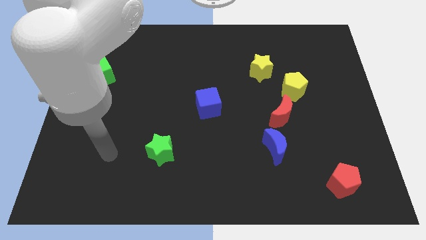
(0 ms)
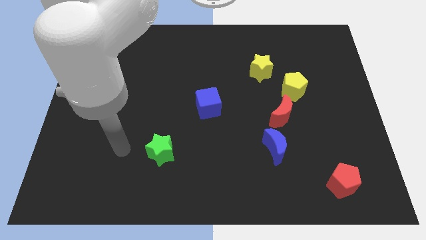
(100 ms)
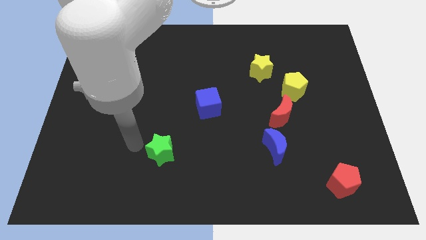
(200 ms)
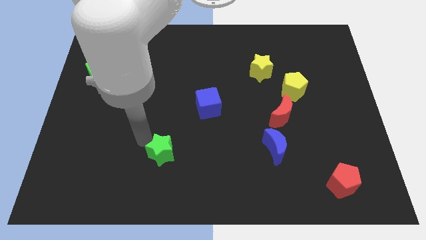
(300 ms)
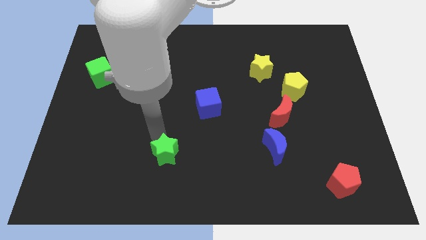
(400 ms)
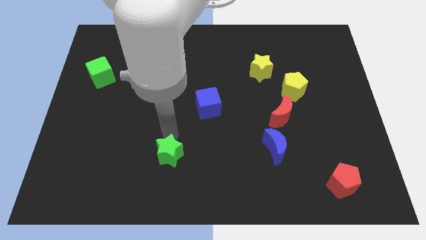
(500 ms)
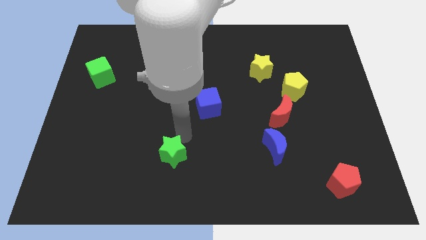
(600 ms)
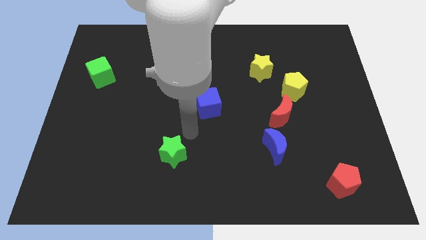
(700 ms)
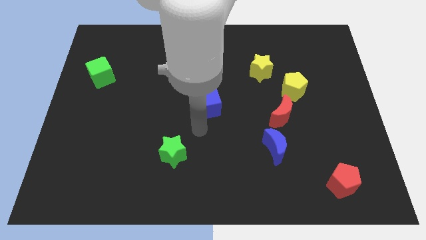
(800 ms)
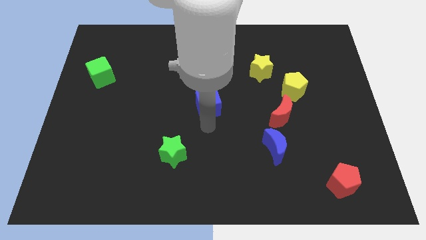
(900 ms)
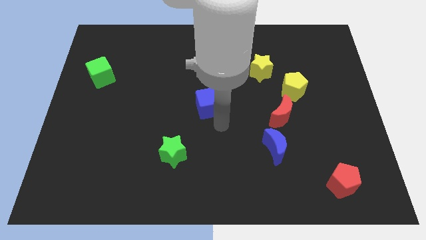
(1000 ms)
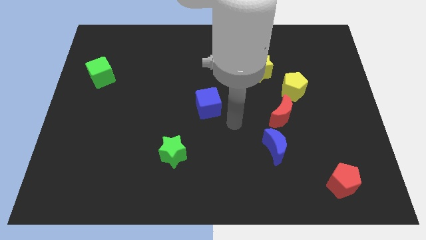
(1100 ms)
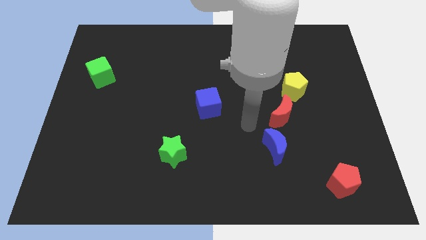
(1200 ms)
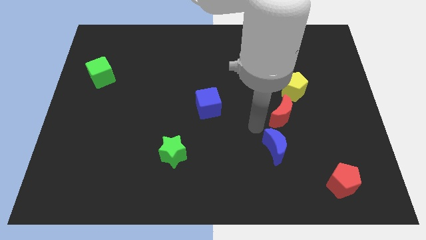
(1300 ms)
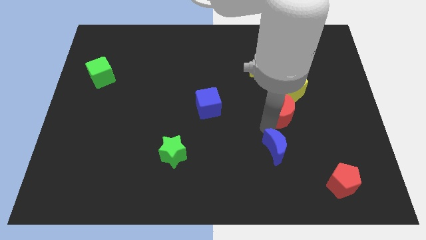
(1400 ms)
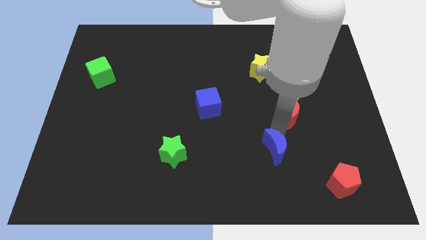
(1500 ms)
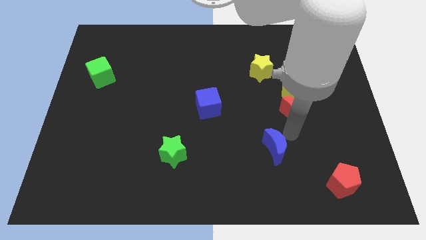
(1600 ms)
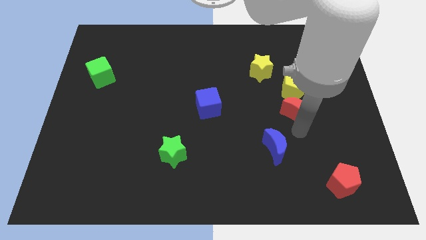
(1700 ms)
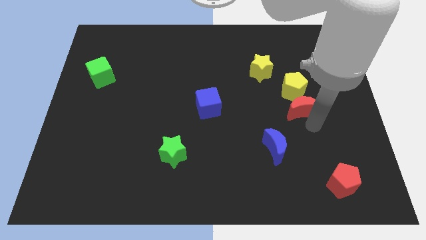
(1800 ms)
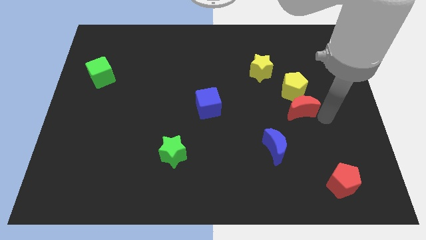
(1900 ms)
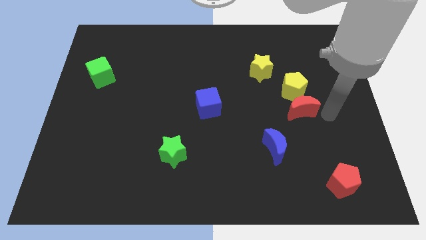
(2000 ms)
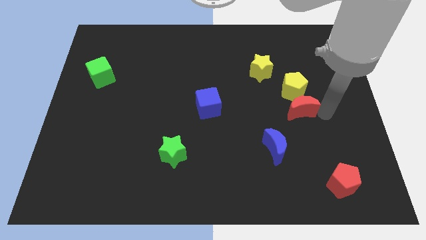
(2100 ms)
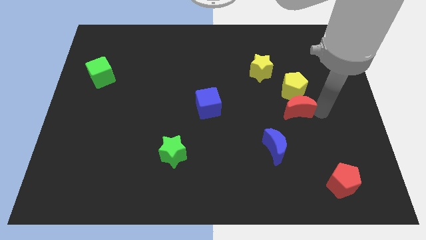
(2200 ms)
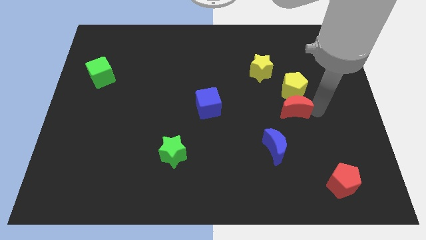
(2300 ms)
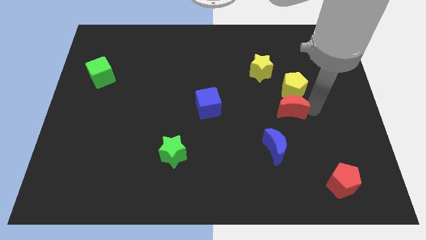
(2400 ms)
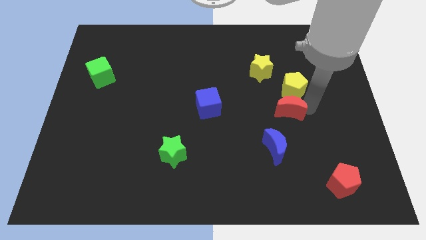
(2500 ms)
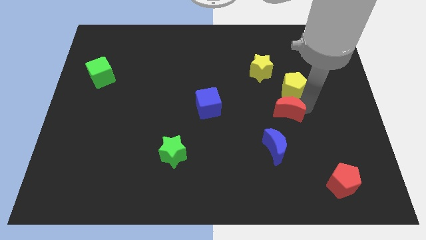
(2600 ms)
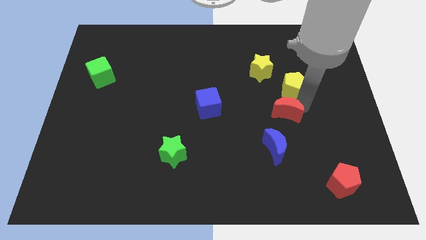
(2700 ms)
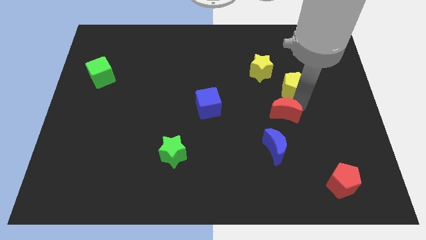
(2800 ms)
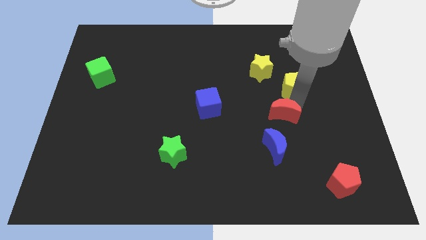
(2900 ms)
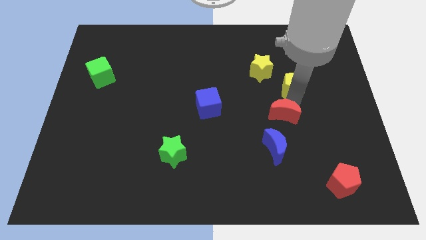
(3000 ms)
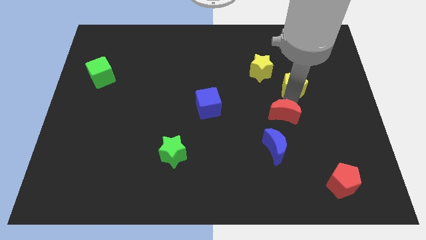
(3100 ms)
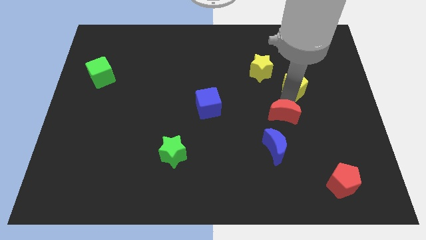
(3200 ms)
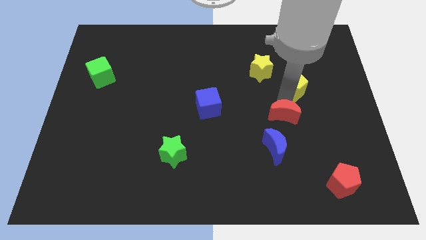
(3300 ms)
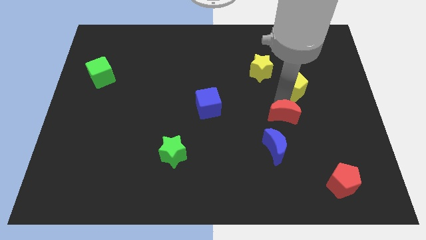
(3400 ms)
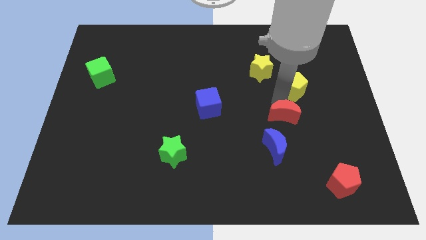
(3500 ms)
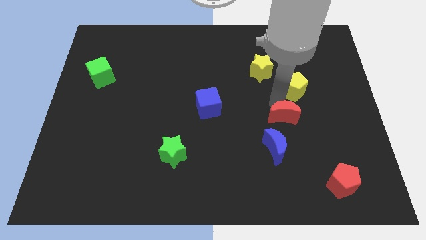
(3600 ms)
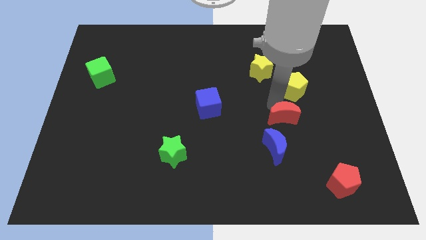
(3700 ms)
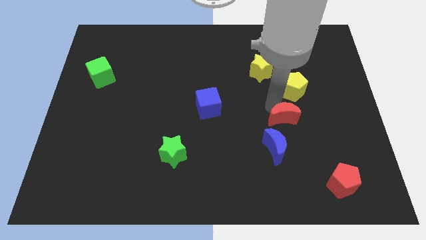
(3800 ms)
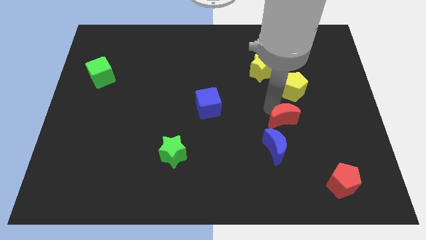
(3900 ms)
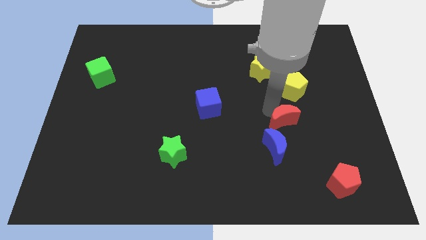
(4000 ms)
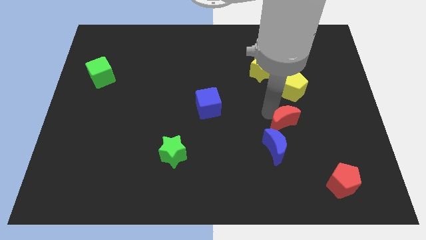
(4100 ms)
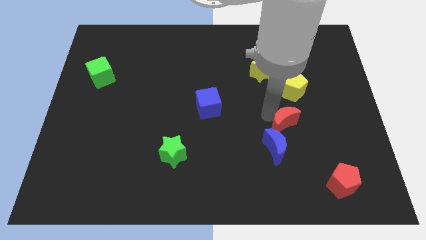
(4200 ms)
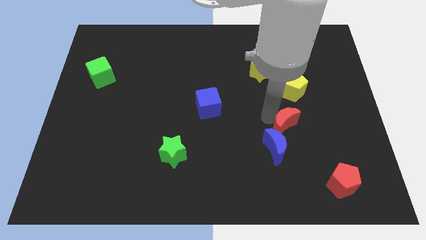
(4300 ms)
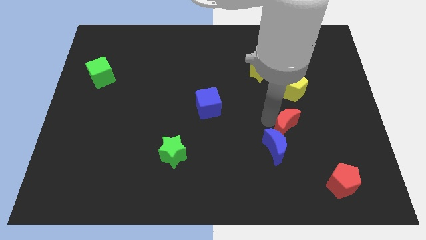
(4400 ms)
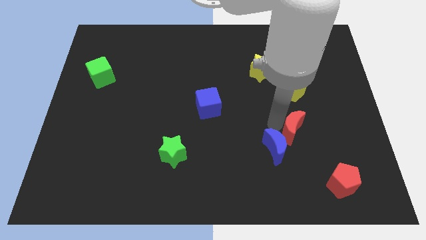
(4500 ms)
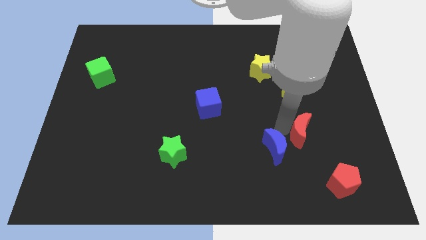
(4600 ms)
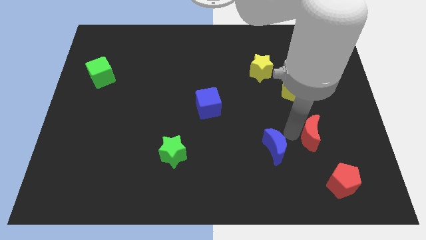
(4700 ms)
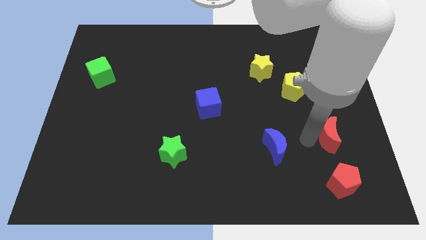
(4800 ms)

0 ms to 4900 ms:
move the red moon away from the yellow pentagon and blue moon

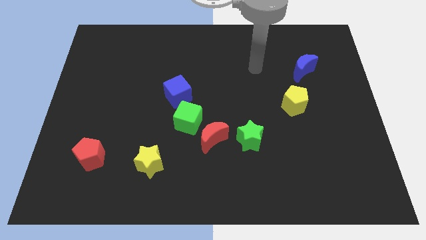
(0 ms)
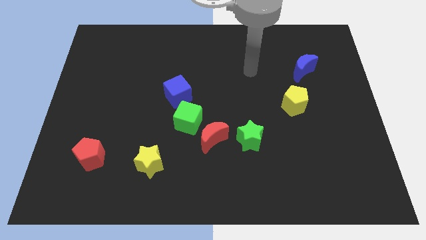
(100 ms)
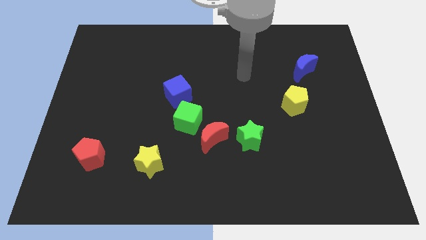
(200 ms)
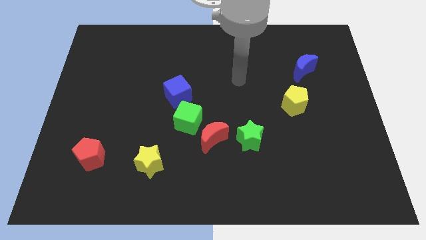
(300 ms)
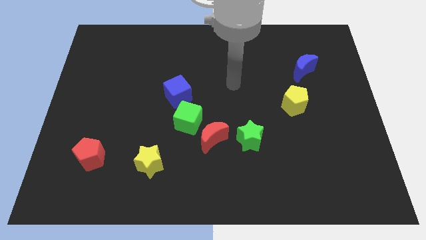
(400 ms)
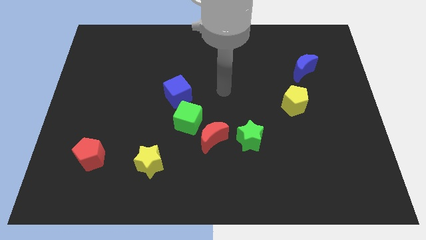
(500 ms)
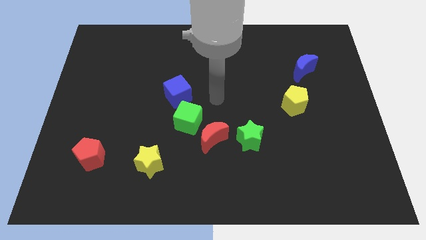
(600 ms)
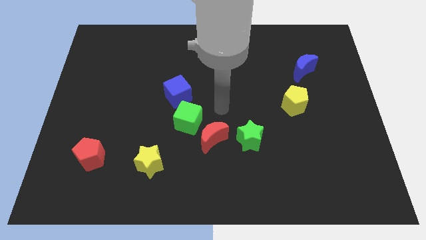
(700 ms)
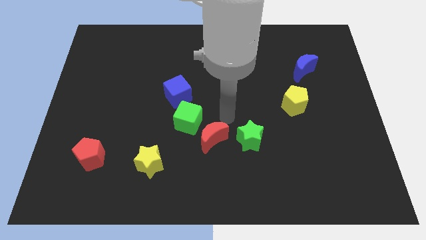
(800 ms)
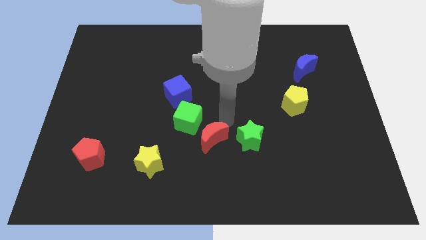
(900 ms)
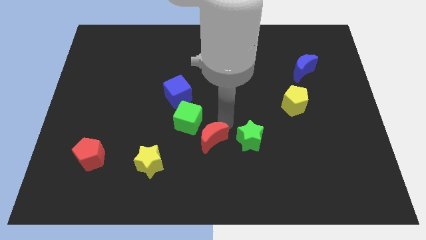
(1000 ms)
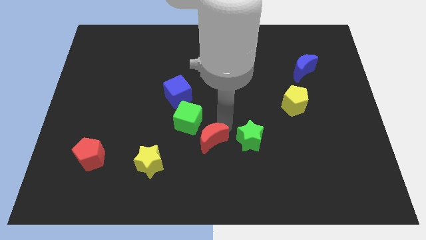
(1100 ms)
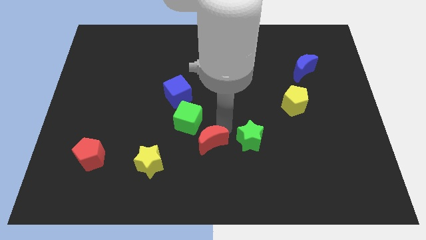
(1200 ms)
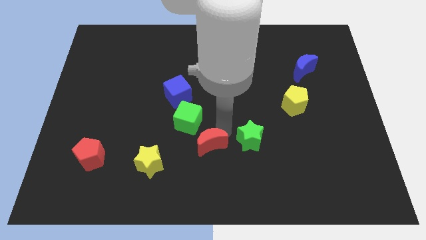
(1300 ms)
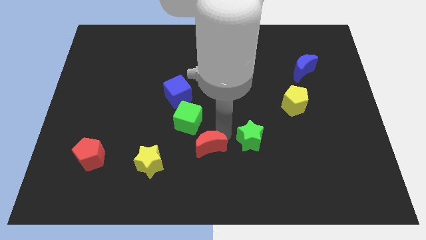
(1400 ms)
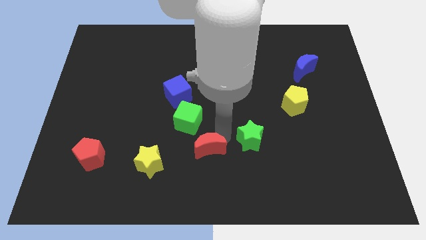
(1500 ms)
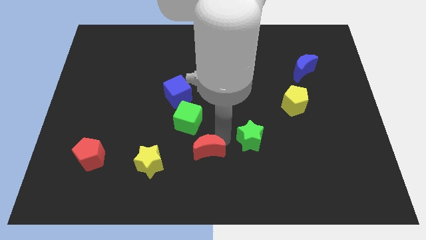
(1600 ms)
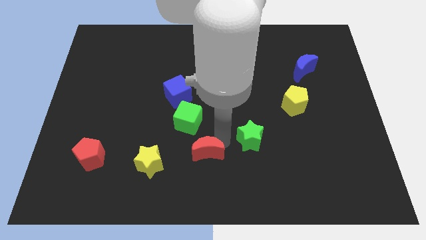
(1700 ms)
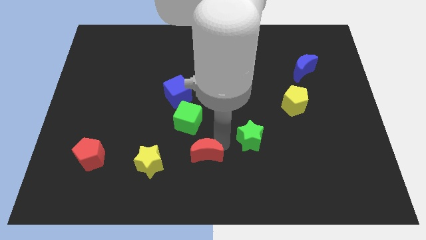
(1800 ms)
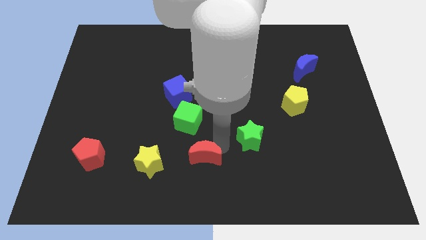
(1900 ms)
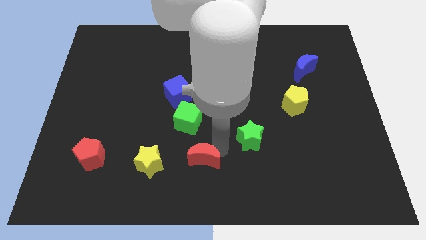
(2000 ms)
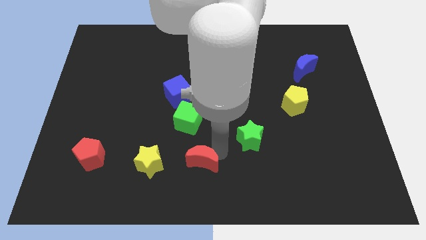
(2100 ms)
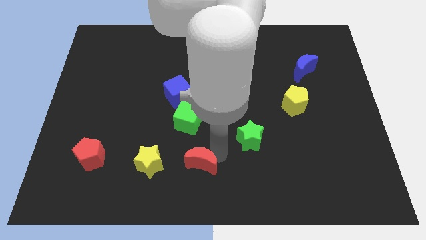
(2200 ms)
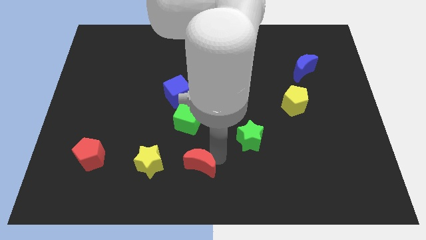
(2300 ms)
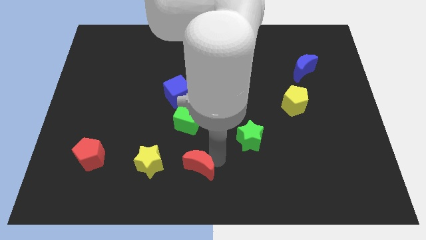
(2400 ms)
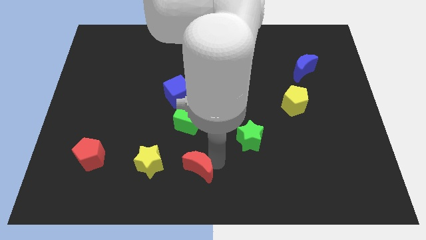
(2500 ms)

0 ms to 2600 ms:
pull the red moon apart from the green cube and green star

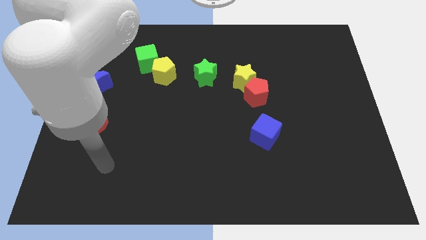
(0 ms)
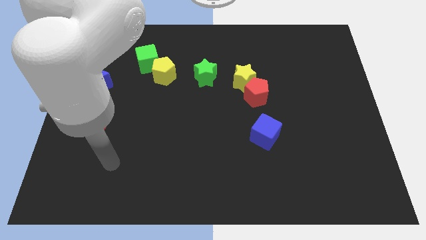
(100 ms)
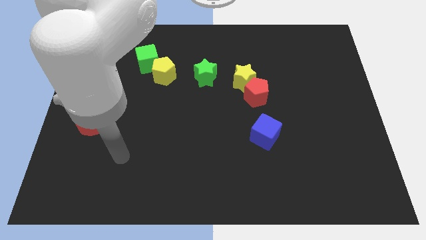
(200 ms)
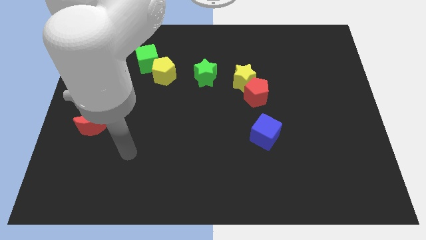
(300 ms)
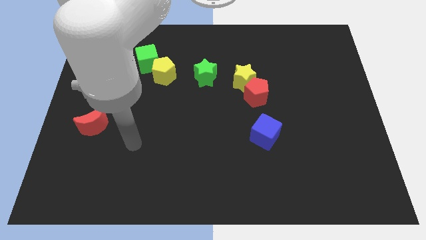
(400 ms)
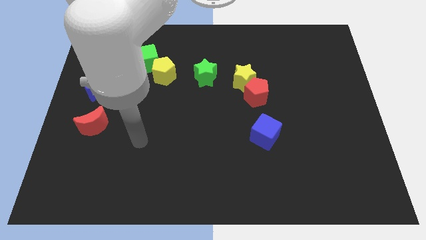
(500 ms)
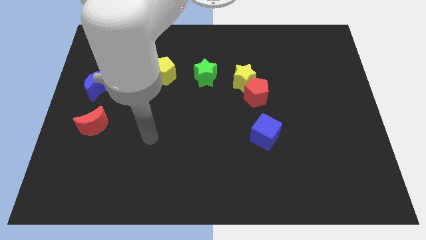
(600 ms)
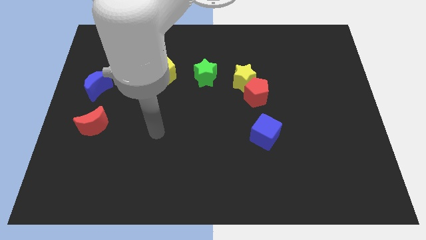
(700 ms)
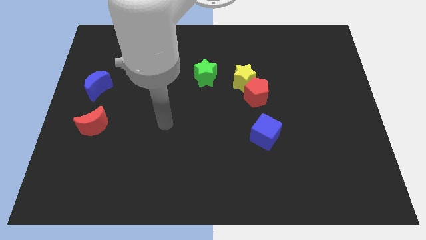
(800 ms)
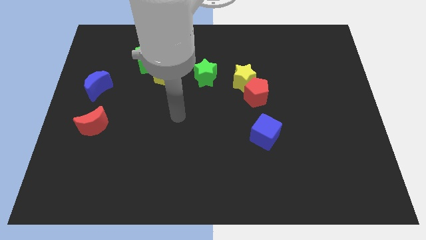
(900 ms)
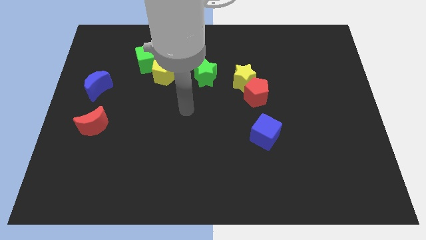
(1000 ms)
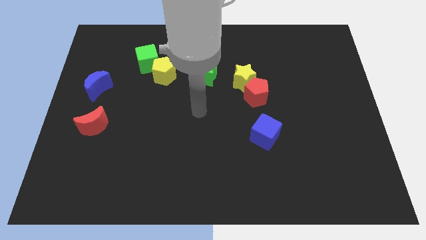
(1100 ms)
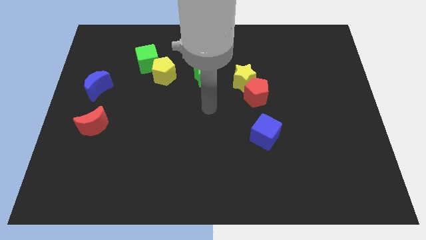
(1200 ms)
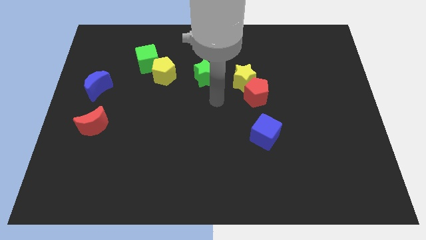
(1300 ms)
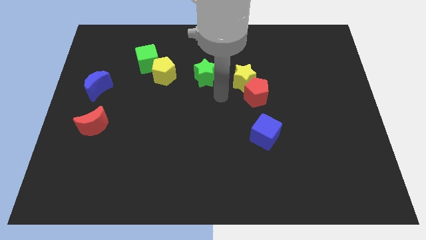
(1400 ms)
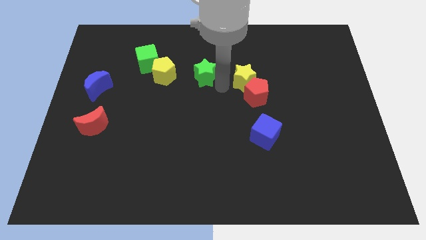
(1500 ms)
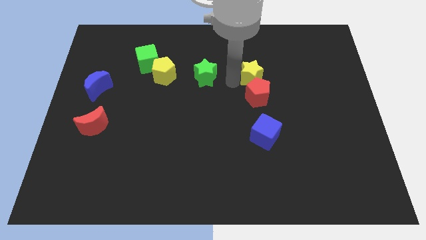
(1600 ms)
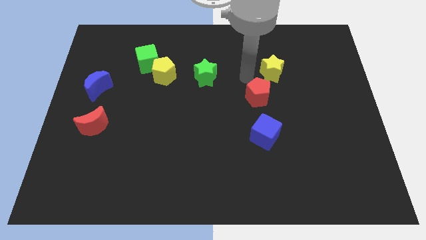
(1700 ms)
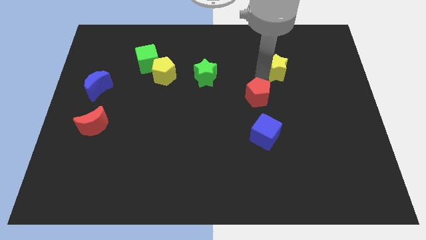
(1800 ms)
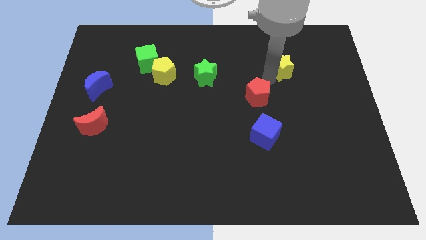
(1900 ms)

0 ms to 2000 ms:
move the red pentagon away from the yellow star

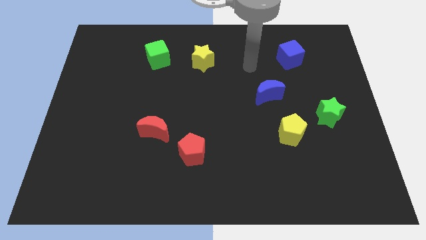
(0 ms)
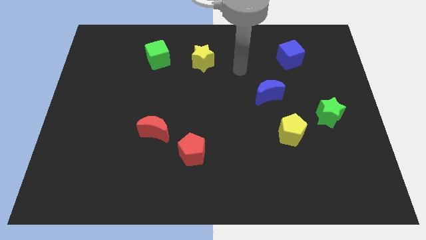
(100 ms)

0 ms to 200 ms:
separate the red moon from the red pentagon
